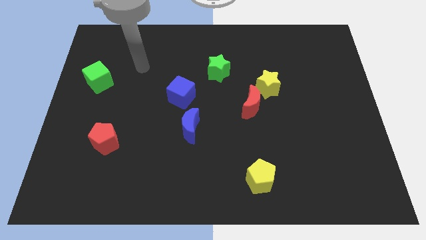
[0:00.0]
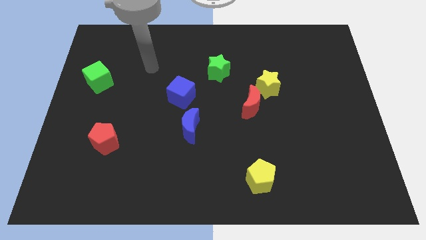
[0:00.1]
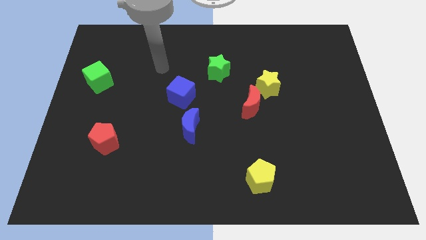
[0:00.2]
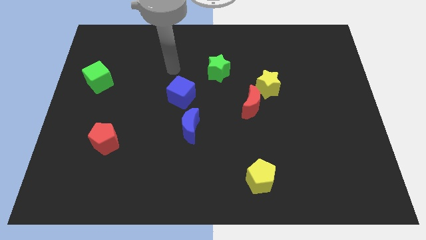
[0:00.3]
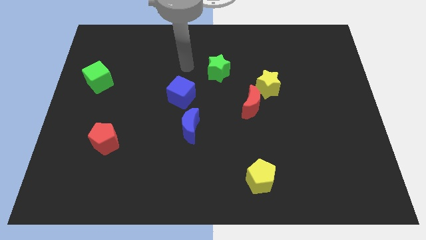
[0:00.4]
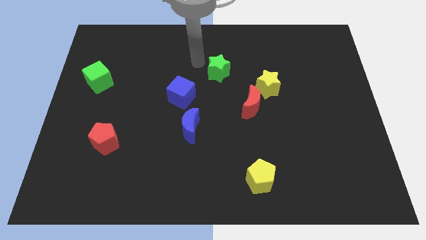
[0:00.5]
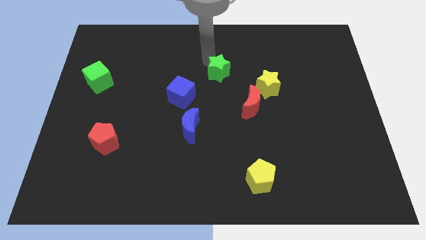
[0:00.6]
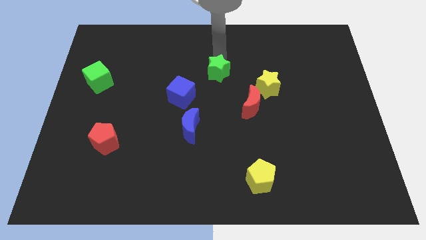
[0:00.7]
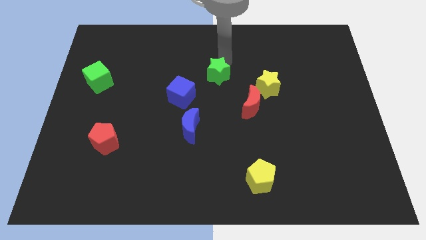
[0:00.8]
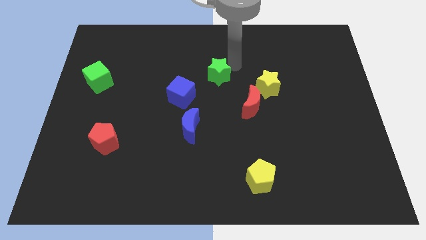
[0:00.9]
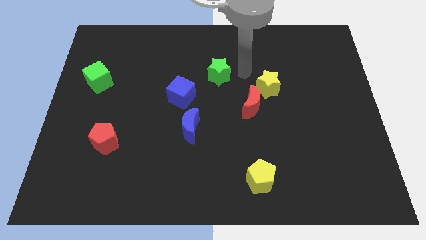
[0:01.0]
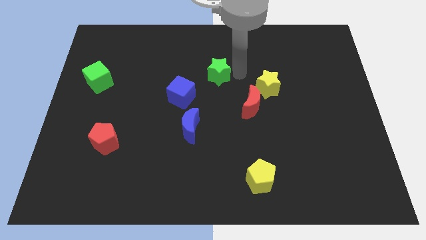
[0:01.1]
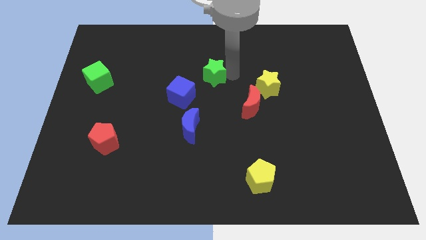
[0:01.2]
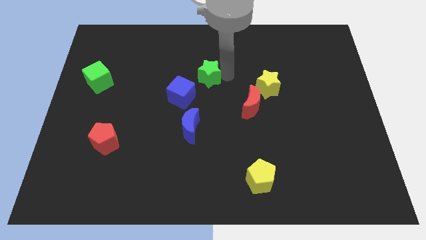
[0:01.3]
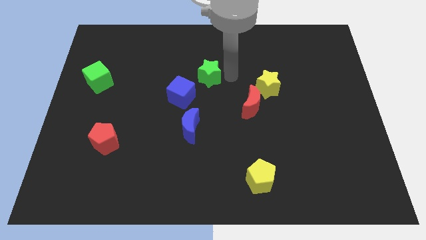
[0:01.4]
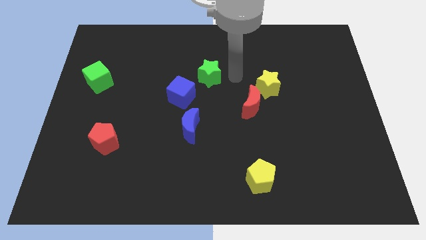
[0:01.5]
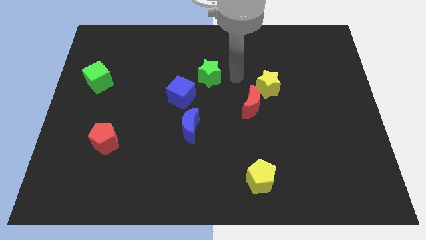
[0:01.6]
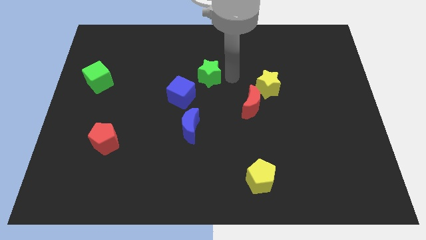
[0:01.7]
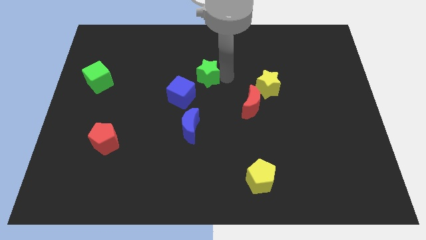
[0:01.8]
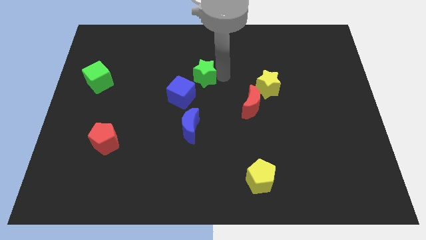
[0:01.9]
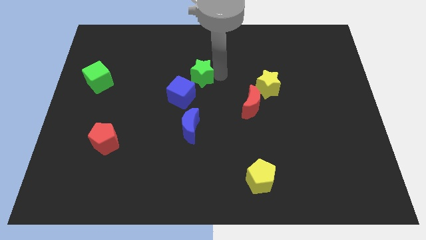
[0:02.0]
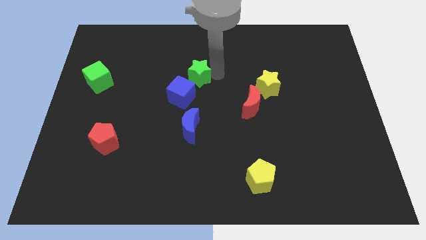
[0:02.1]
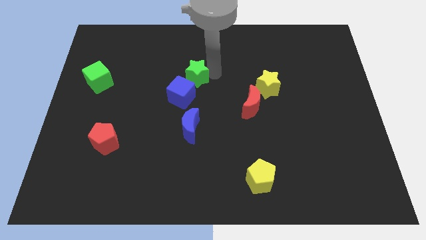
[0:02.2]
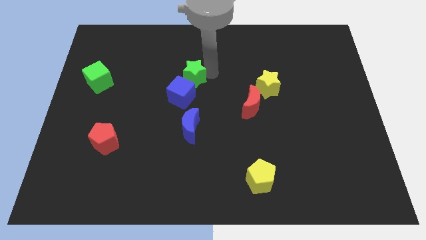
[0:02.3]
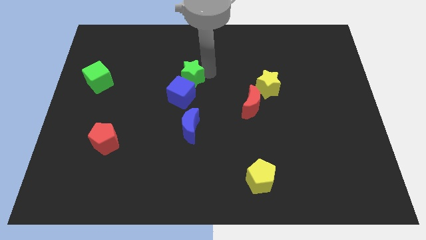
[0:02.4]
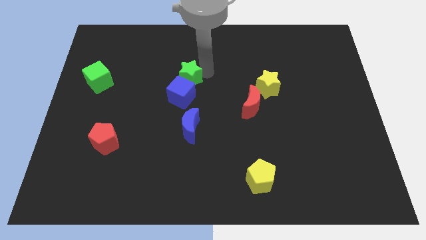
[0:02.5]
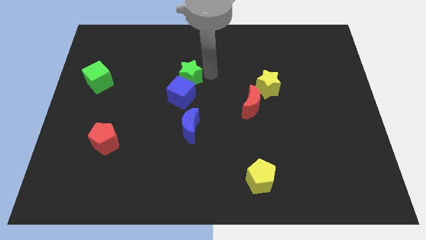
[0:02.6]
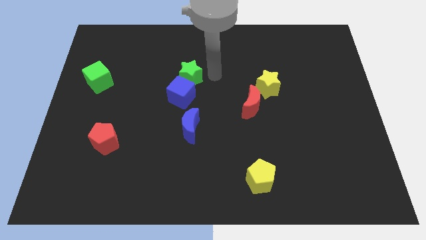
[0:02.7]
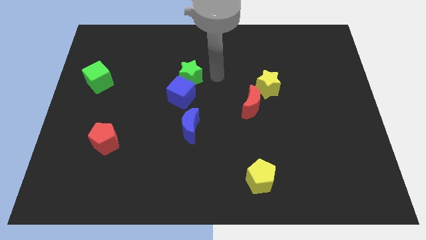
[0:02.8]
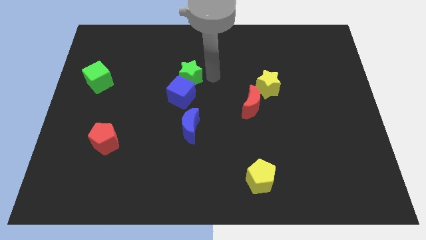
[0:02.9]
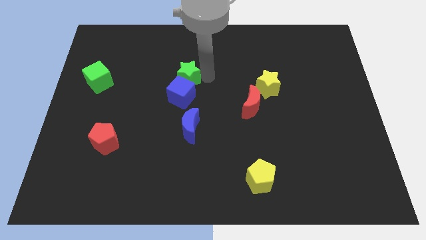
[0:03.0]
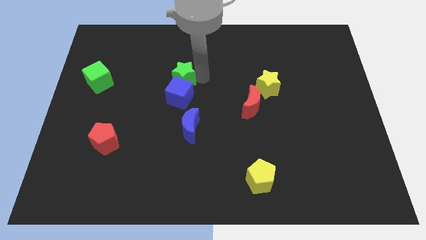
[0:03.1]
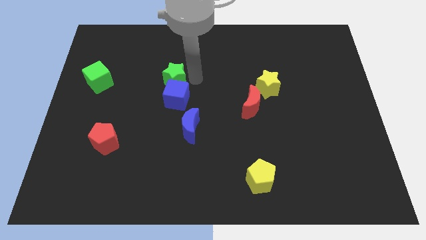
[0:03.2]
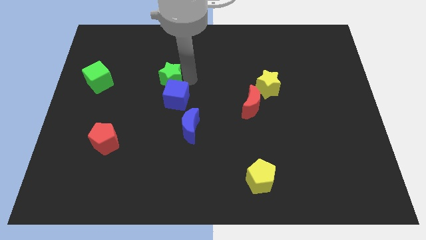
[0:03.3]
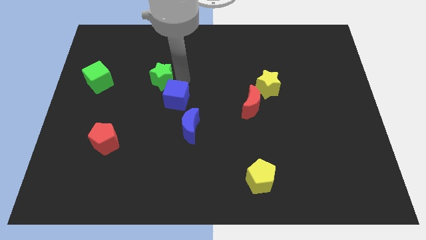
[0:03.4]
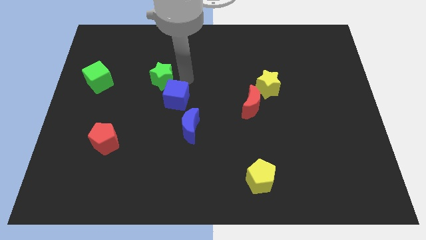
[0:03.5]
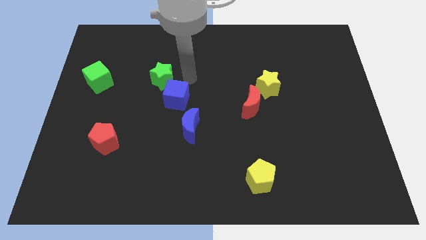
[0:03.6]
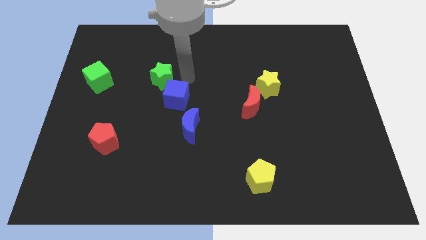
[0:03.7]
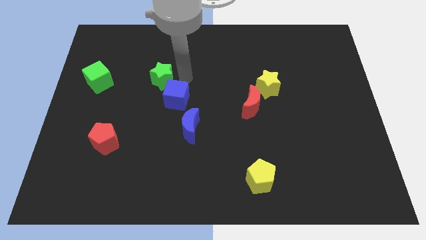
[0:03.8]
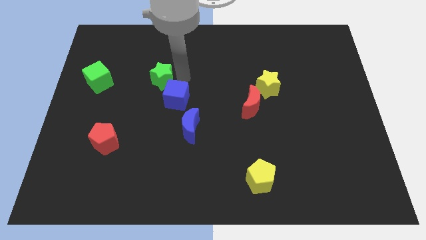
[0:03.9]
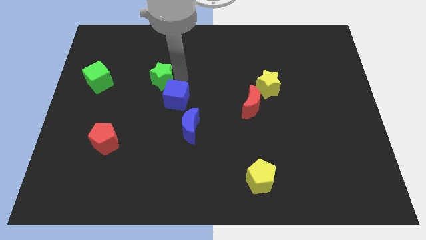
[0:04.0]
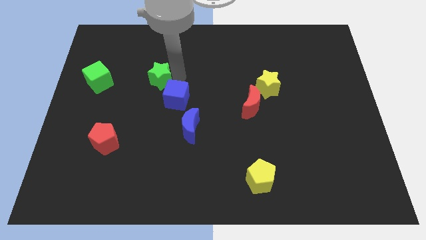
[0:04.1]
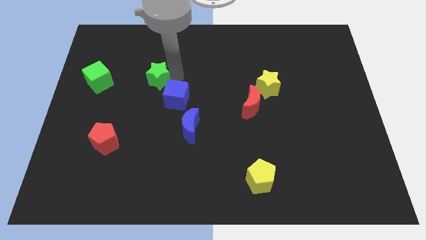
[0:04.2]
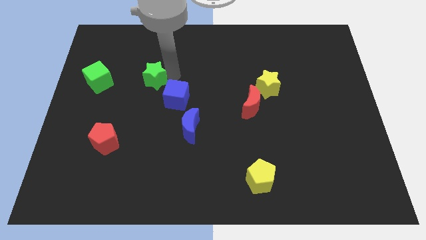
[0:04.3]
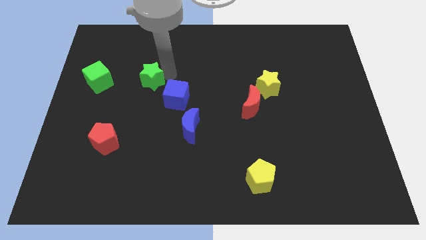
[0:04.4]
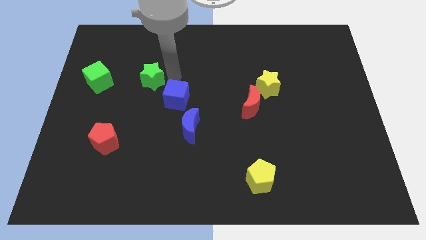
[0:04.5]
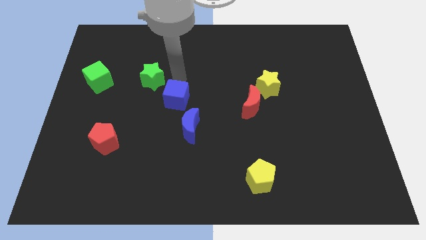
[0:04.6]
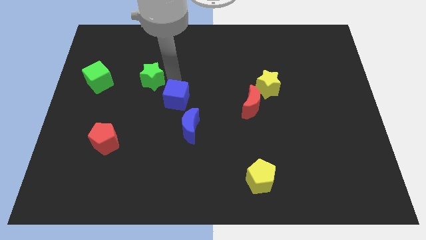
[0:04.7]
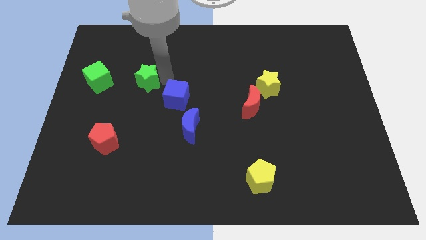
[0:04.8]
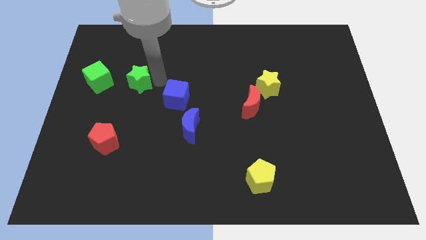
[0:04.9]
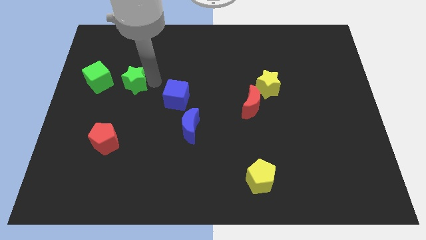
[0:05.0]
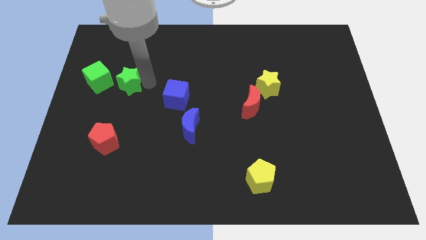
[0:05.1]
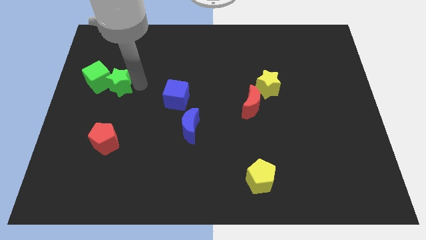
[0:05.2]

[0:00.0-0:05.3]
slide the green star to the green cube

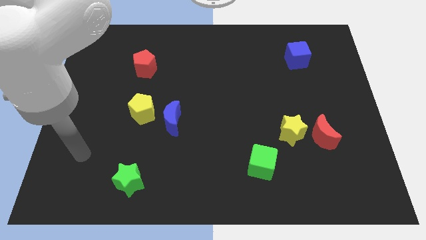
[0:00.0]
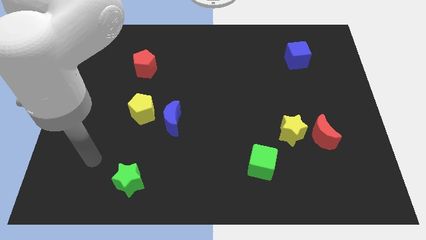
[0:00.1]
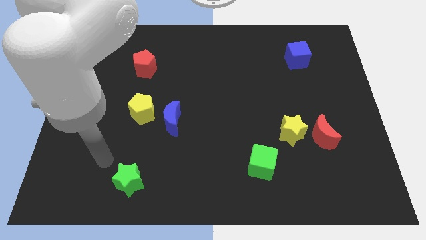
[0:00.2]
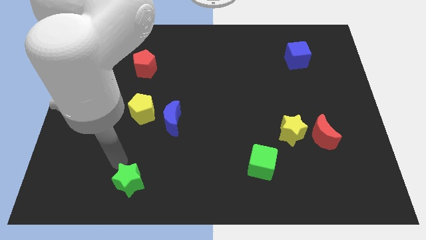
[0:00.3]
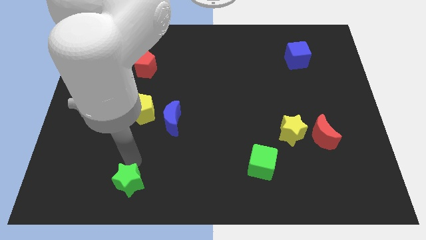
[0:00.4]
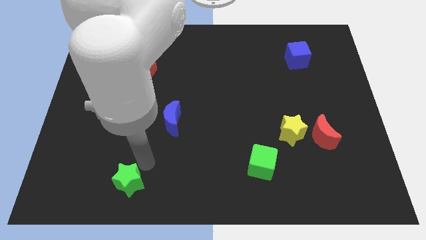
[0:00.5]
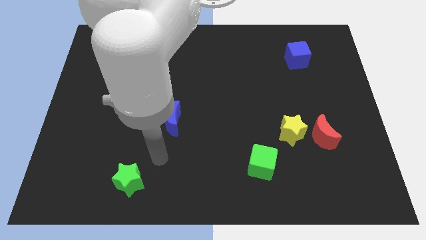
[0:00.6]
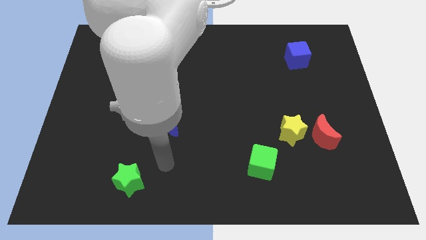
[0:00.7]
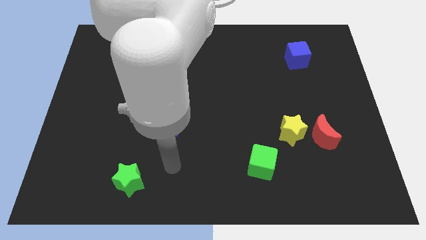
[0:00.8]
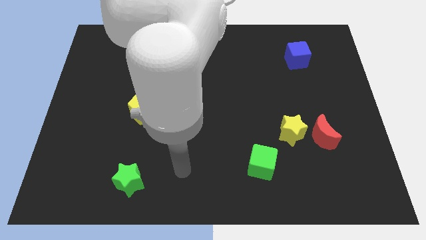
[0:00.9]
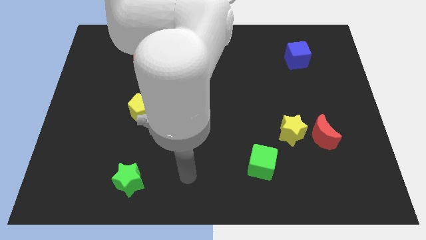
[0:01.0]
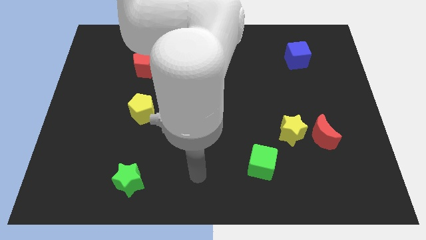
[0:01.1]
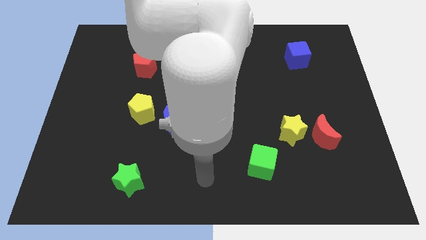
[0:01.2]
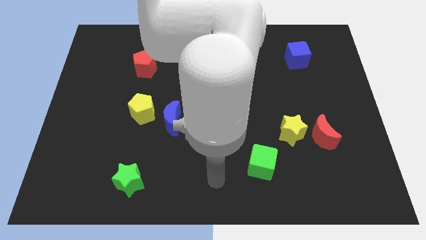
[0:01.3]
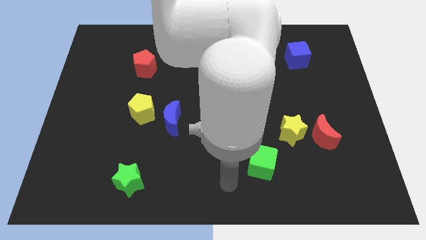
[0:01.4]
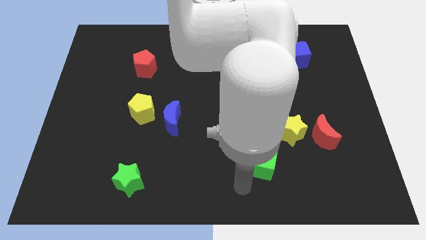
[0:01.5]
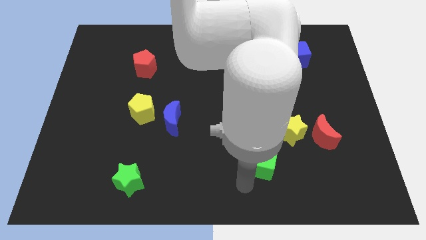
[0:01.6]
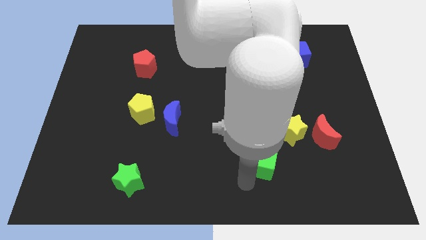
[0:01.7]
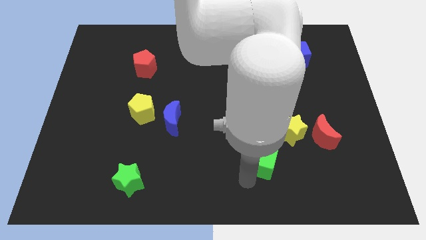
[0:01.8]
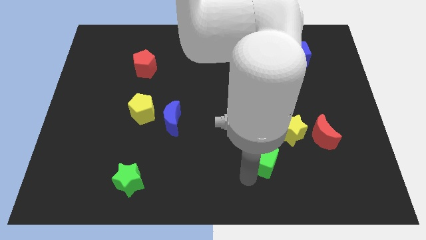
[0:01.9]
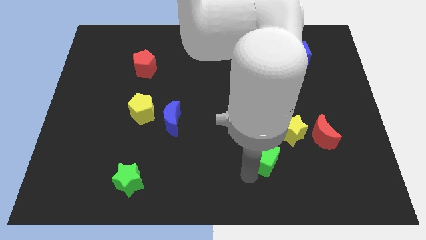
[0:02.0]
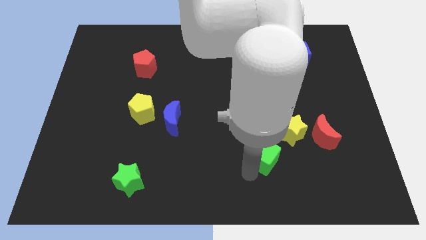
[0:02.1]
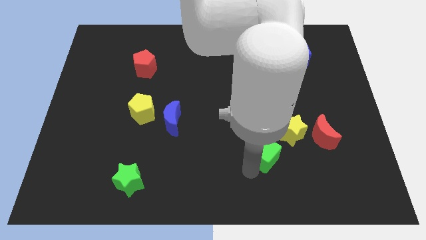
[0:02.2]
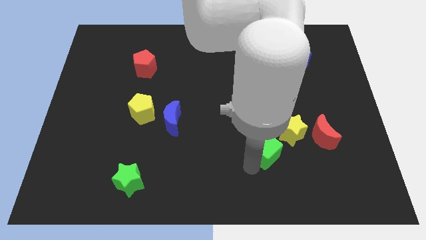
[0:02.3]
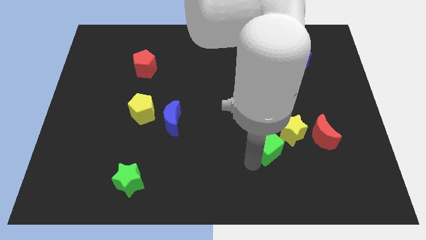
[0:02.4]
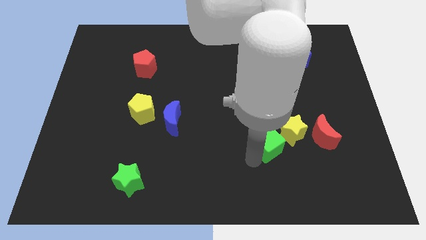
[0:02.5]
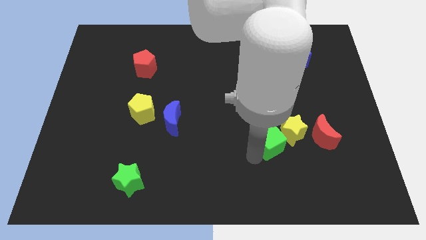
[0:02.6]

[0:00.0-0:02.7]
slide the green cube towards the yellow star
